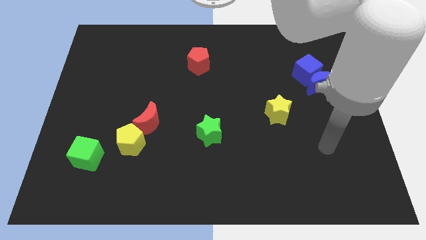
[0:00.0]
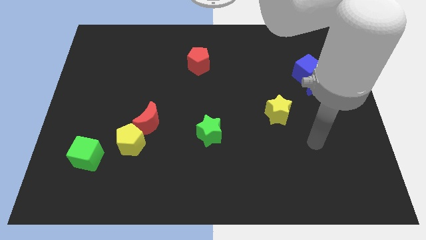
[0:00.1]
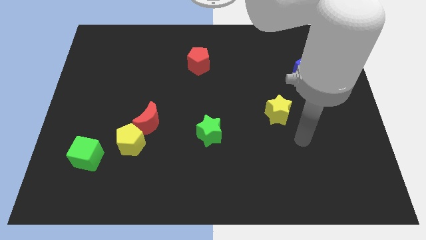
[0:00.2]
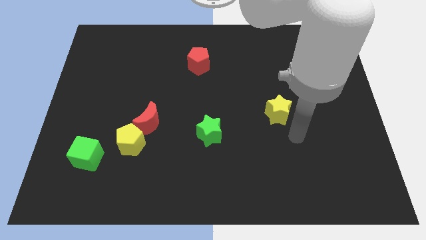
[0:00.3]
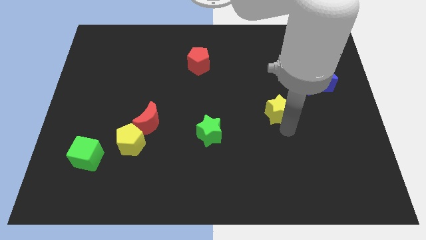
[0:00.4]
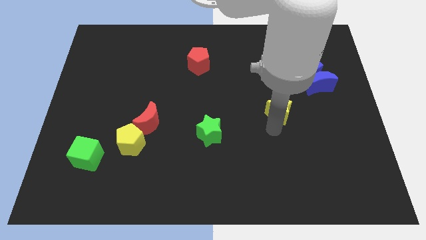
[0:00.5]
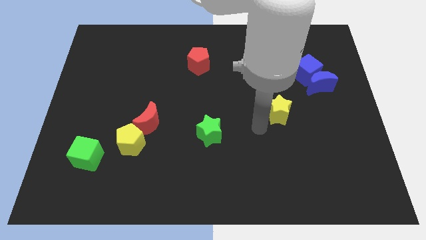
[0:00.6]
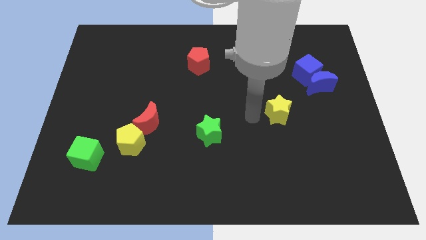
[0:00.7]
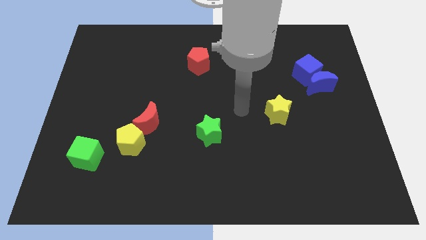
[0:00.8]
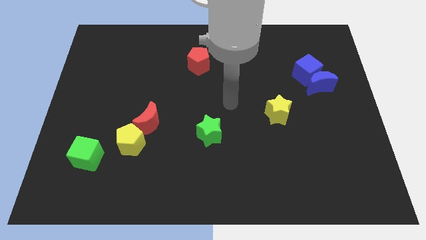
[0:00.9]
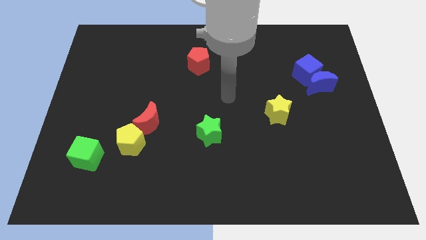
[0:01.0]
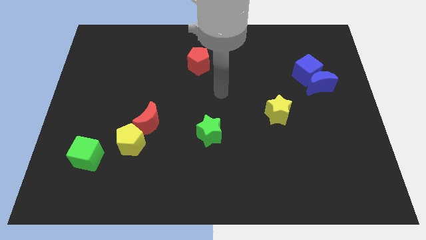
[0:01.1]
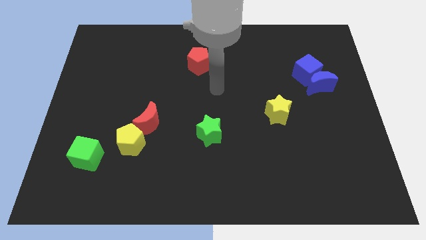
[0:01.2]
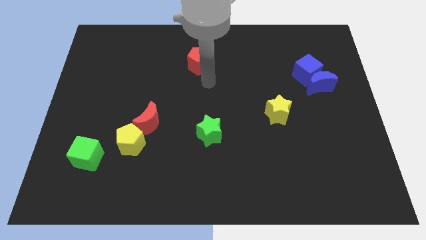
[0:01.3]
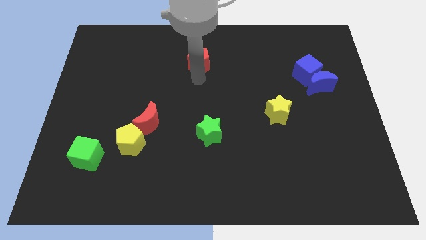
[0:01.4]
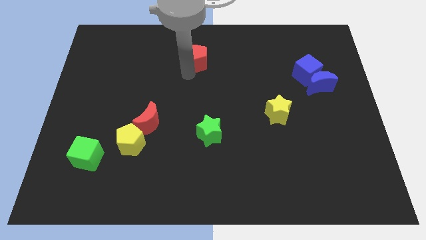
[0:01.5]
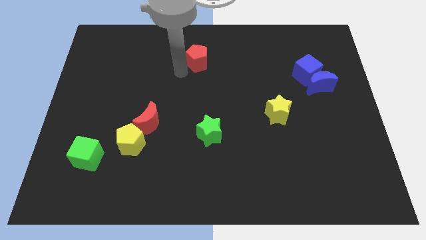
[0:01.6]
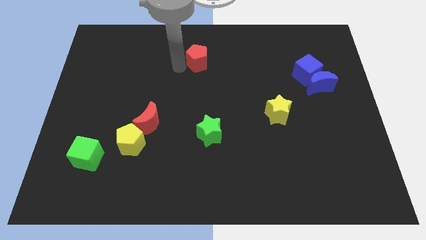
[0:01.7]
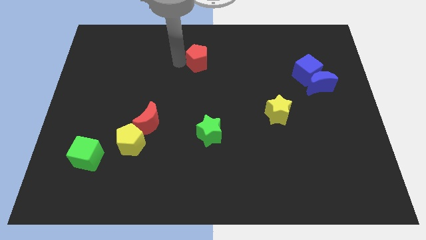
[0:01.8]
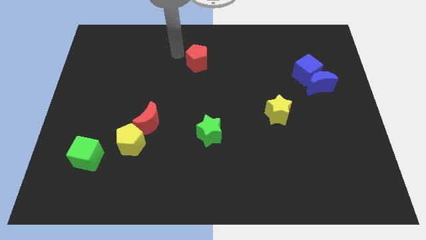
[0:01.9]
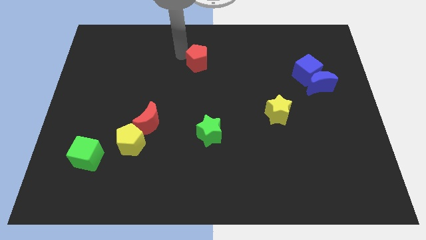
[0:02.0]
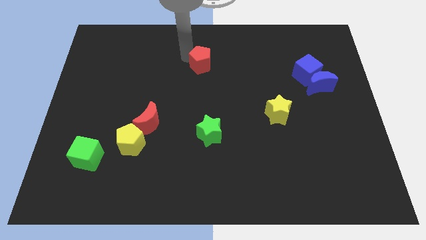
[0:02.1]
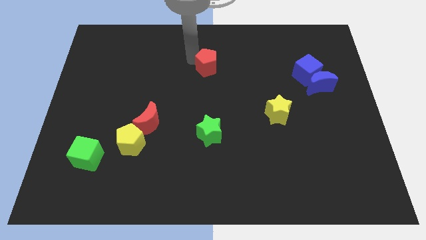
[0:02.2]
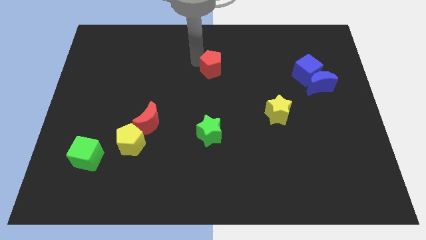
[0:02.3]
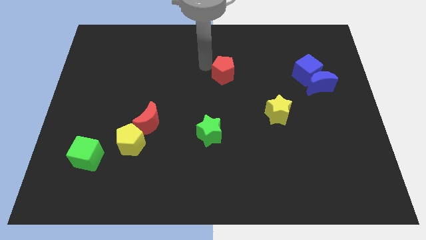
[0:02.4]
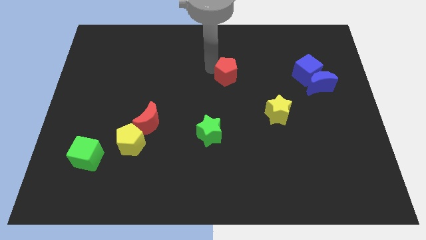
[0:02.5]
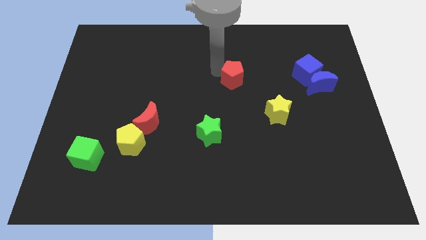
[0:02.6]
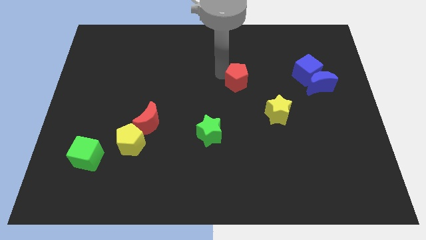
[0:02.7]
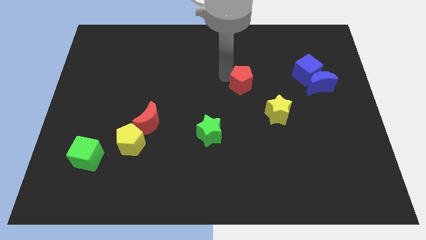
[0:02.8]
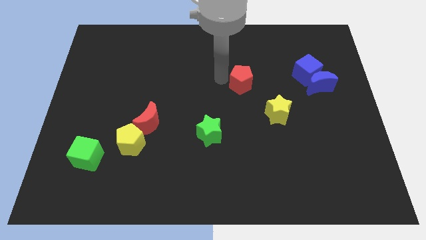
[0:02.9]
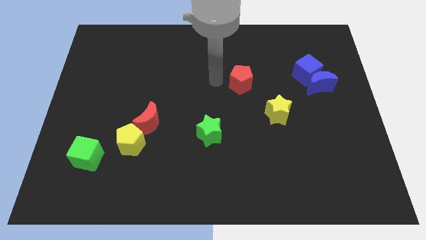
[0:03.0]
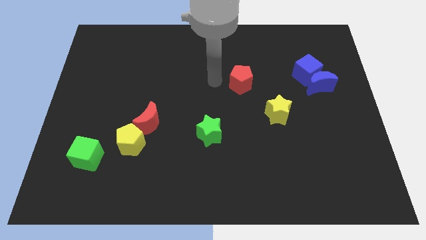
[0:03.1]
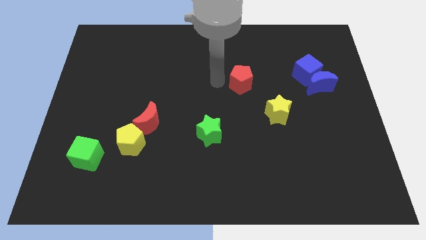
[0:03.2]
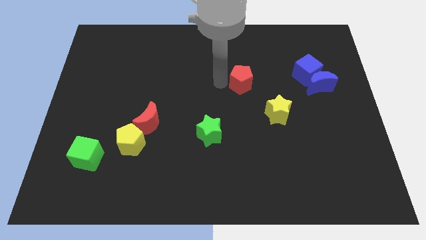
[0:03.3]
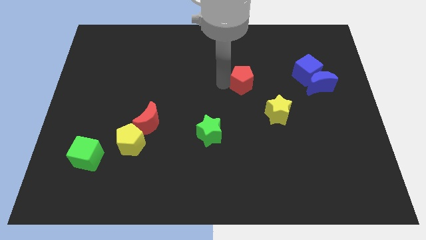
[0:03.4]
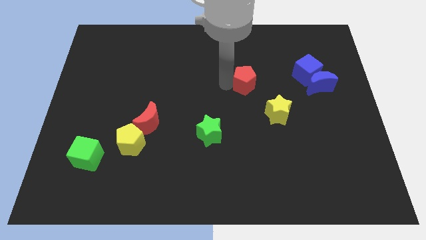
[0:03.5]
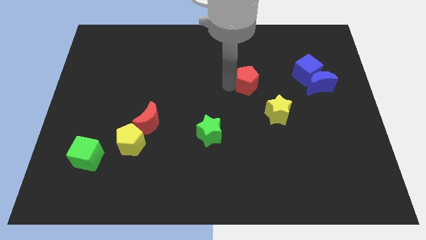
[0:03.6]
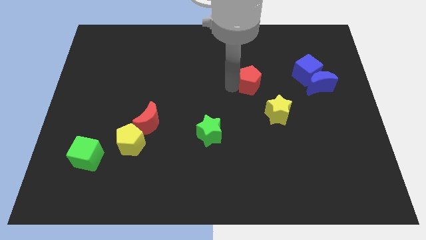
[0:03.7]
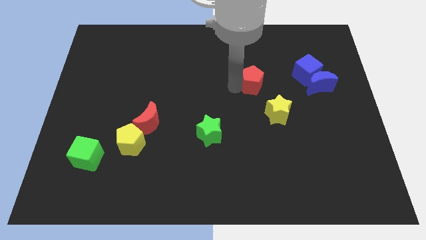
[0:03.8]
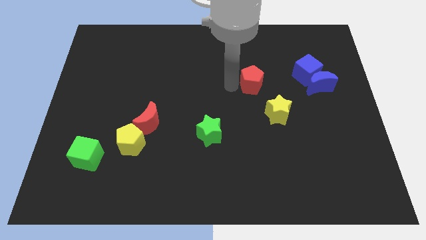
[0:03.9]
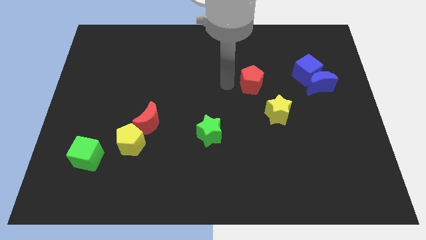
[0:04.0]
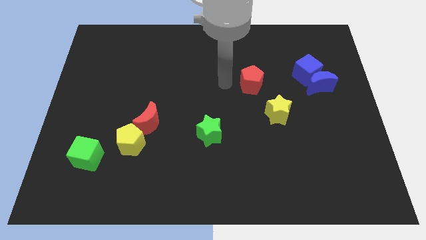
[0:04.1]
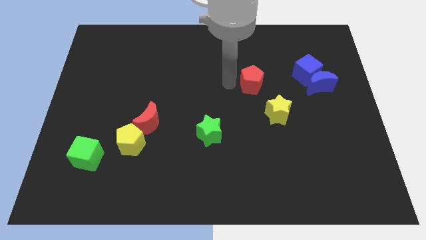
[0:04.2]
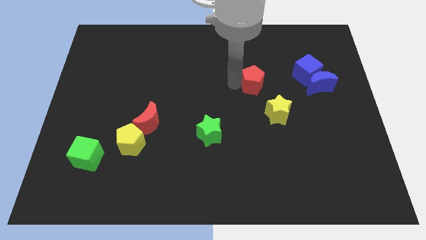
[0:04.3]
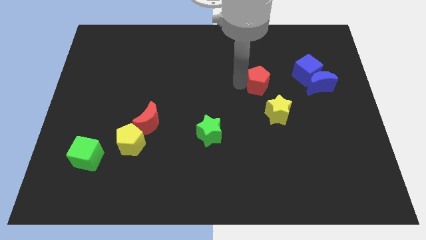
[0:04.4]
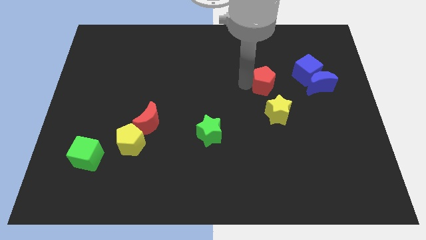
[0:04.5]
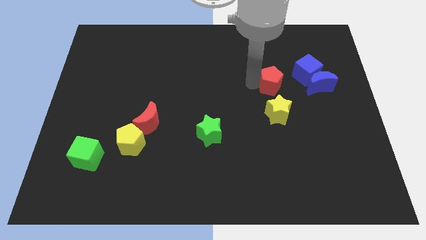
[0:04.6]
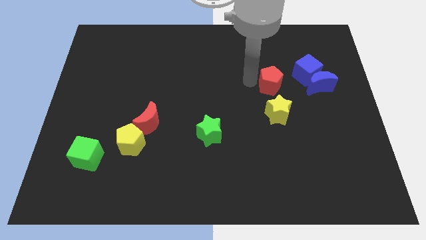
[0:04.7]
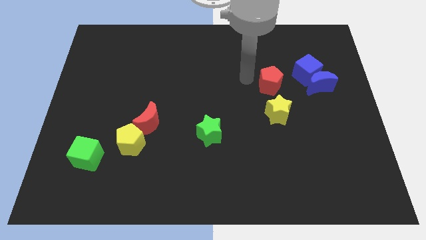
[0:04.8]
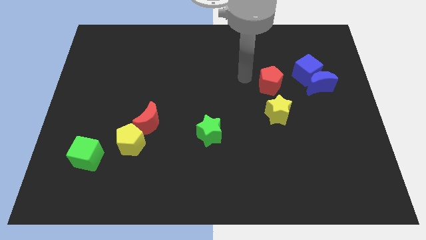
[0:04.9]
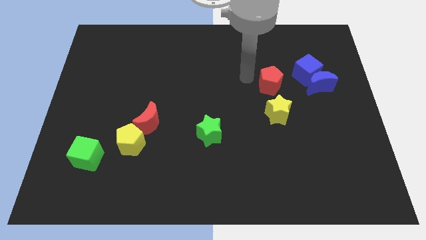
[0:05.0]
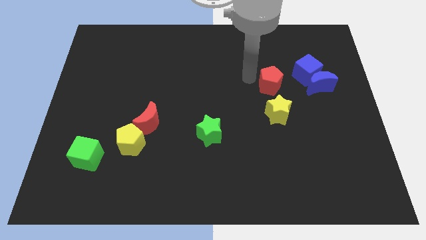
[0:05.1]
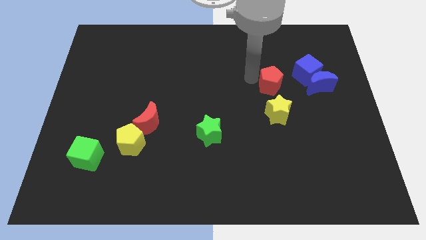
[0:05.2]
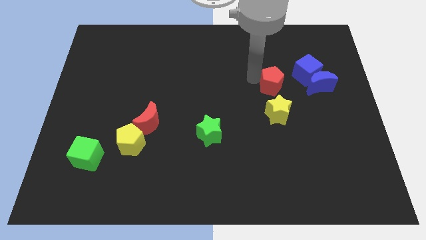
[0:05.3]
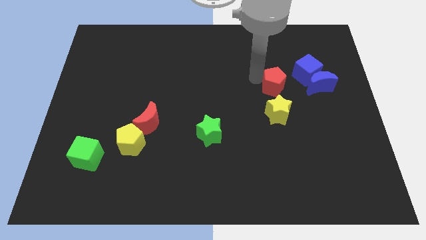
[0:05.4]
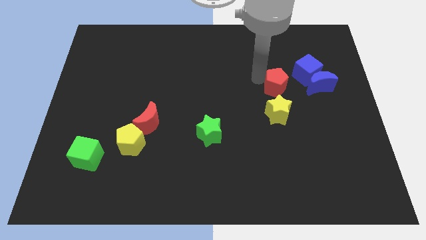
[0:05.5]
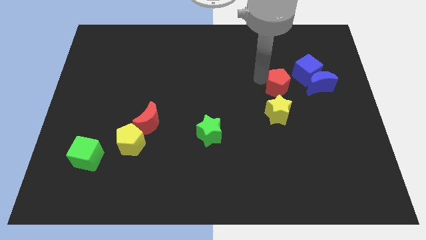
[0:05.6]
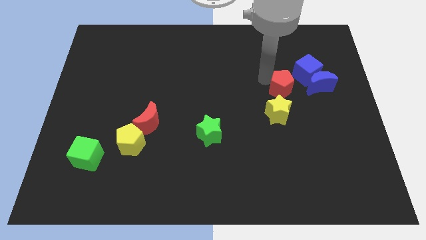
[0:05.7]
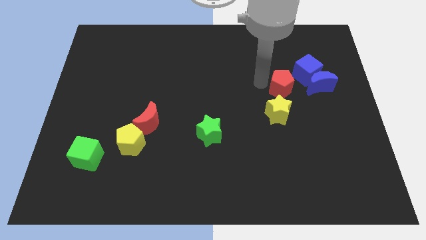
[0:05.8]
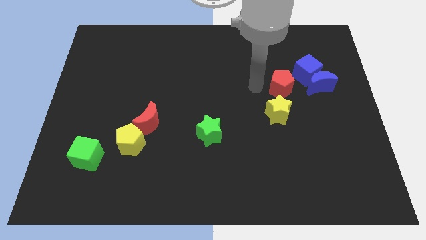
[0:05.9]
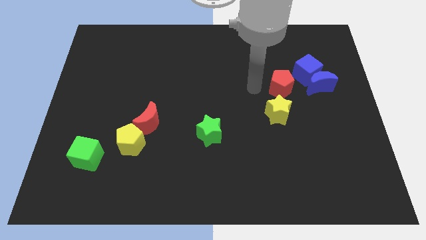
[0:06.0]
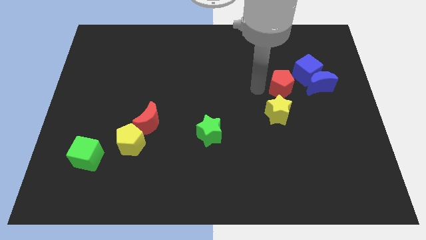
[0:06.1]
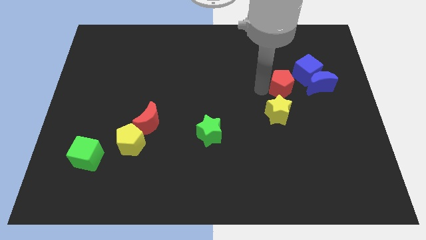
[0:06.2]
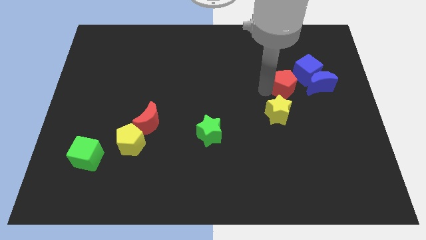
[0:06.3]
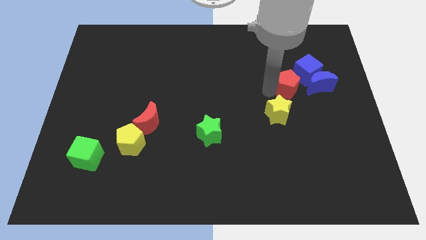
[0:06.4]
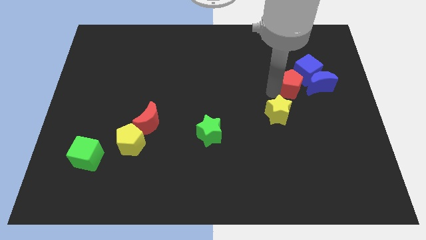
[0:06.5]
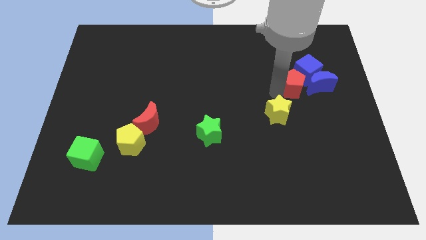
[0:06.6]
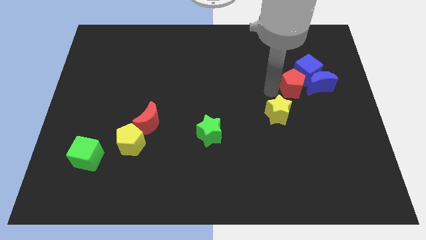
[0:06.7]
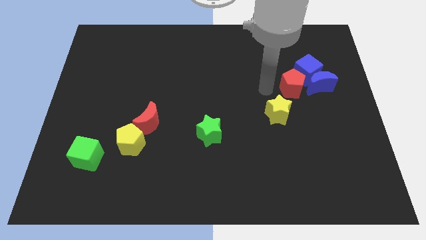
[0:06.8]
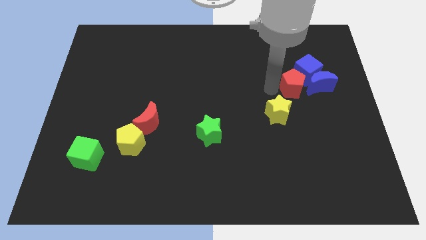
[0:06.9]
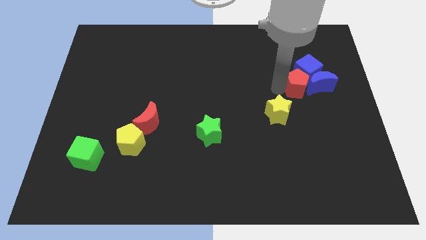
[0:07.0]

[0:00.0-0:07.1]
put the red pentagon towards the blue moon

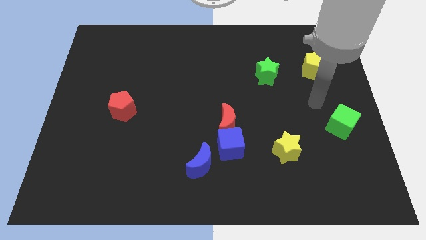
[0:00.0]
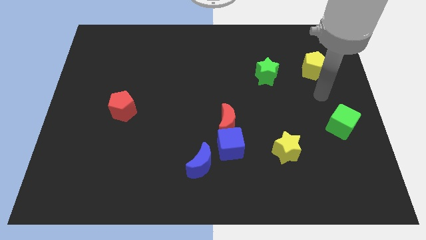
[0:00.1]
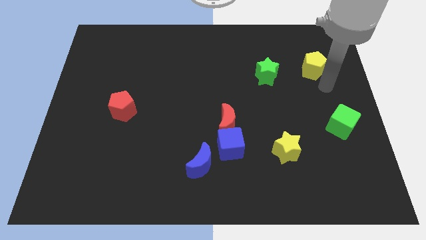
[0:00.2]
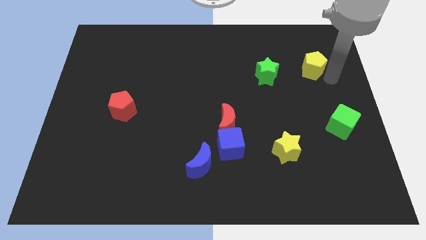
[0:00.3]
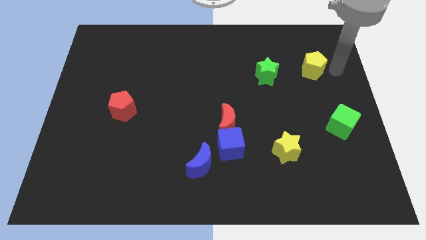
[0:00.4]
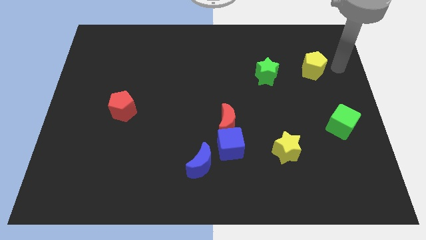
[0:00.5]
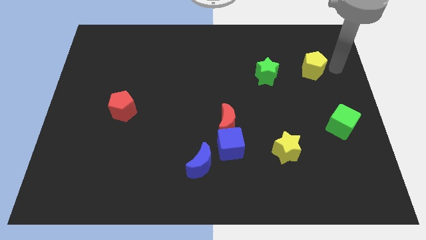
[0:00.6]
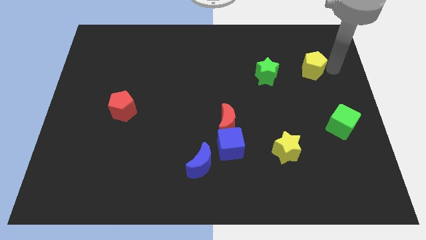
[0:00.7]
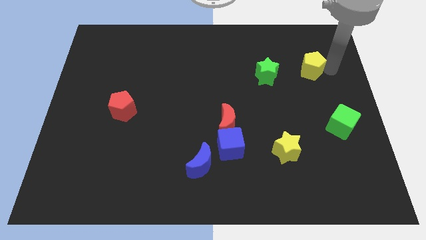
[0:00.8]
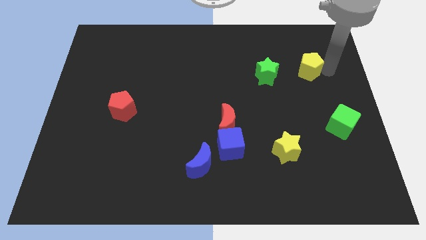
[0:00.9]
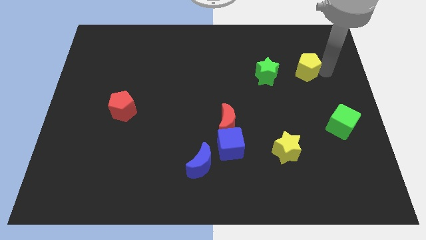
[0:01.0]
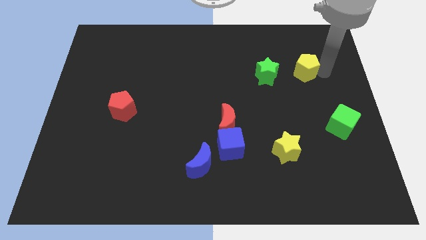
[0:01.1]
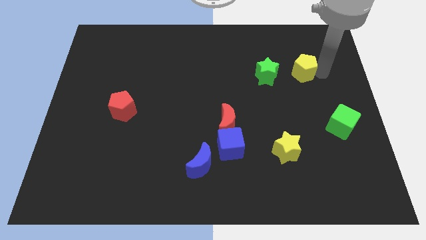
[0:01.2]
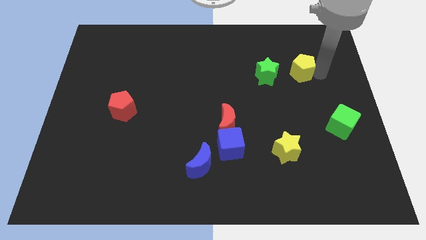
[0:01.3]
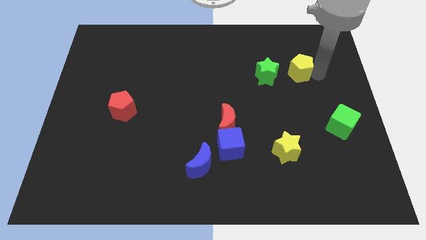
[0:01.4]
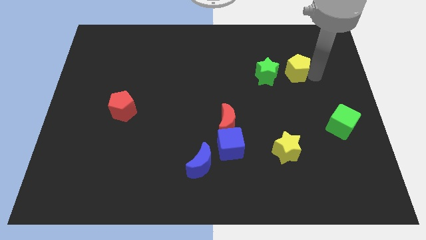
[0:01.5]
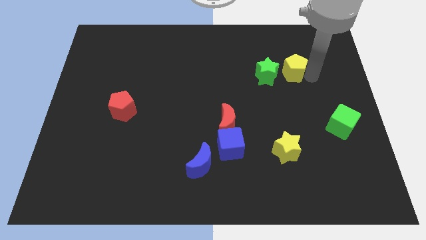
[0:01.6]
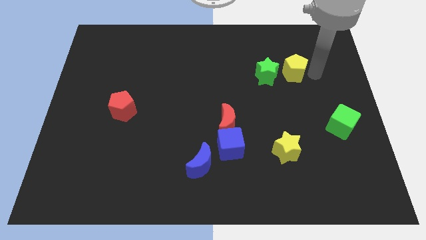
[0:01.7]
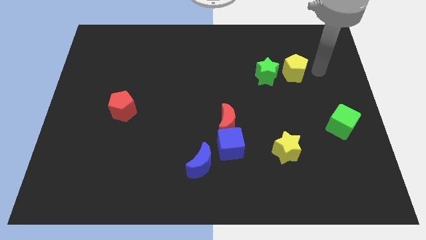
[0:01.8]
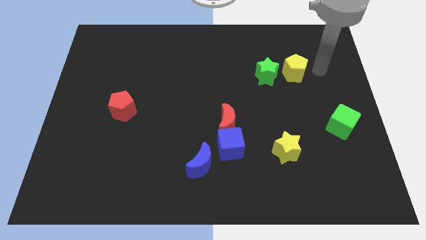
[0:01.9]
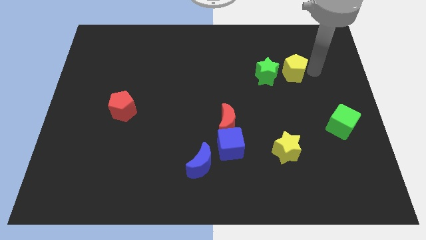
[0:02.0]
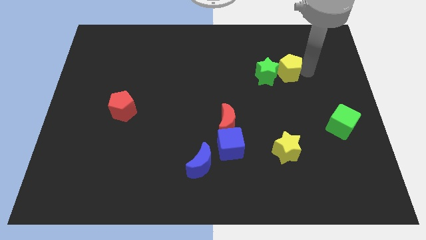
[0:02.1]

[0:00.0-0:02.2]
push the yellow pentagon next to the green star
